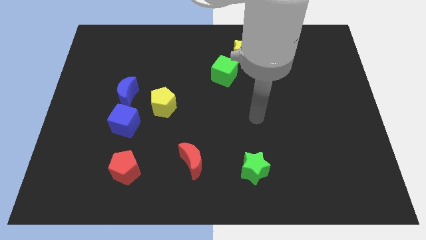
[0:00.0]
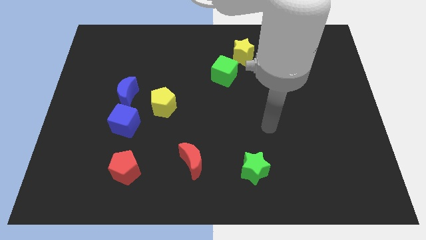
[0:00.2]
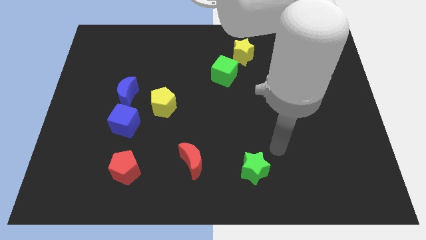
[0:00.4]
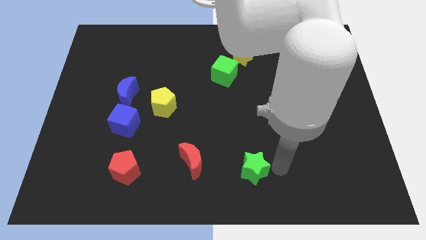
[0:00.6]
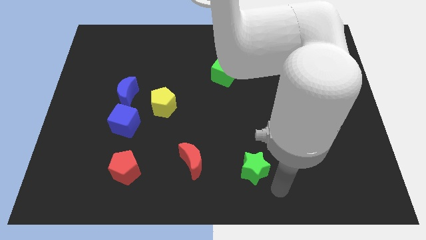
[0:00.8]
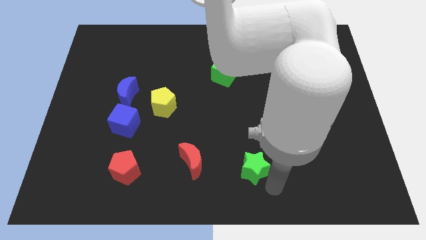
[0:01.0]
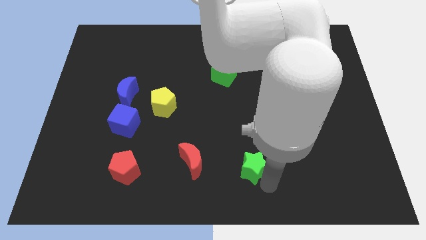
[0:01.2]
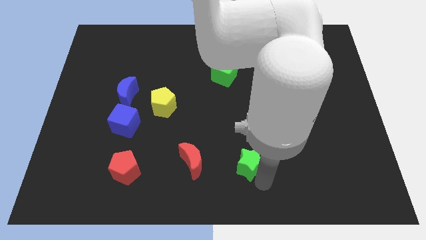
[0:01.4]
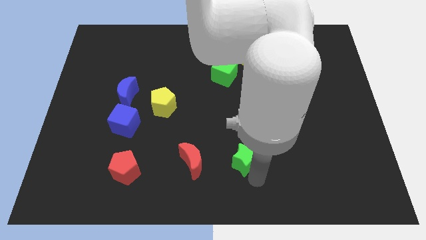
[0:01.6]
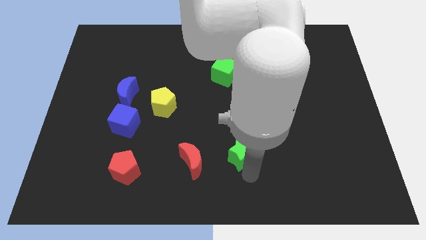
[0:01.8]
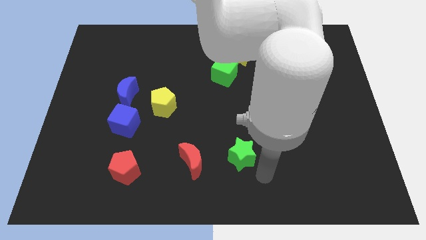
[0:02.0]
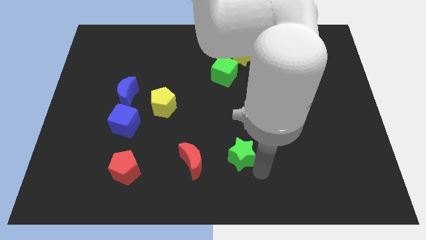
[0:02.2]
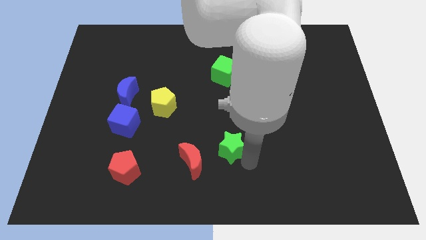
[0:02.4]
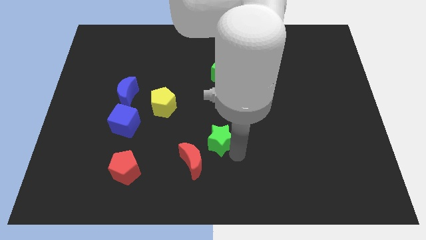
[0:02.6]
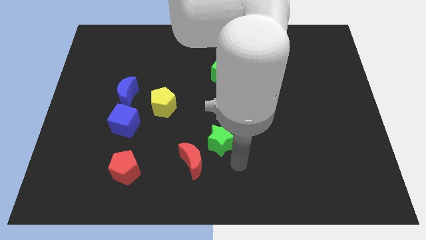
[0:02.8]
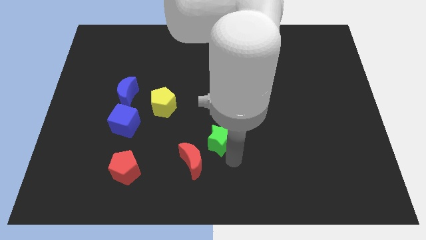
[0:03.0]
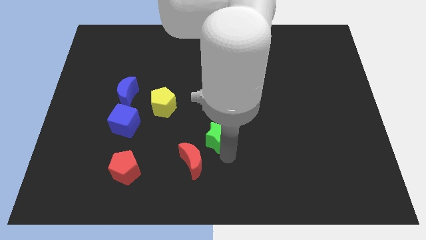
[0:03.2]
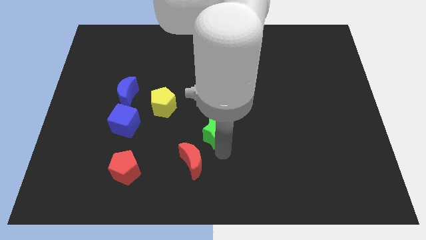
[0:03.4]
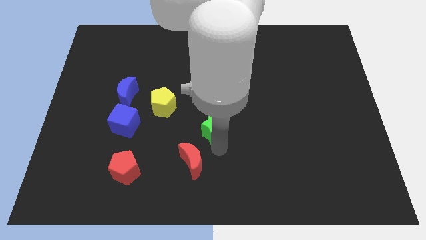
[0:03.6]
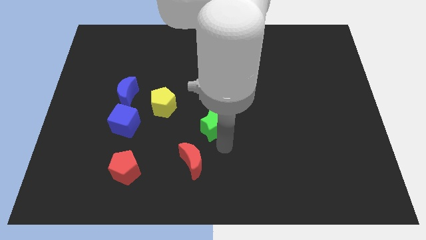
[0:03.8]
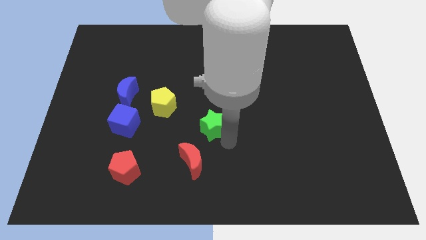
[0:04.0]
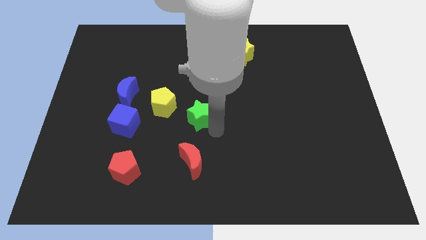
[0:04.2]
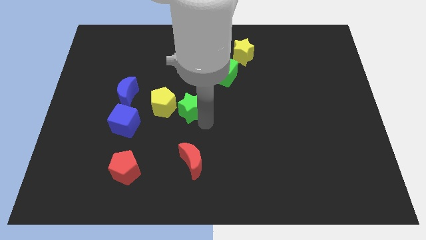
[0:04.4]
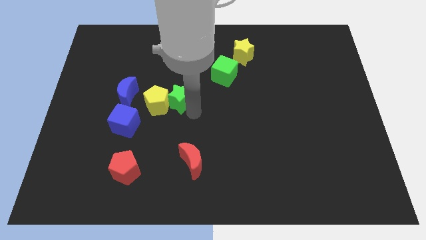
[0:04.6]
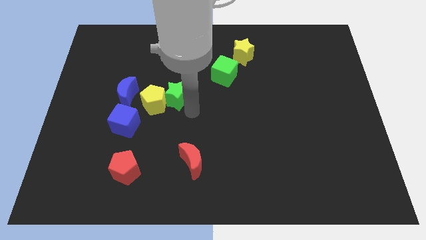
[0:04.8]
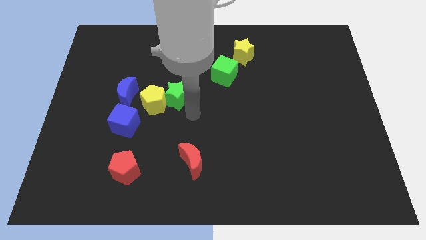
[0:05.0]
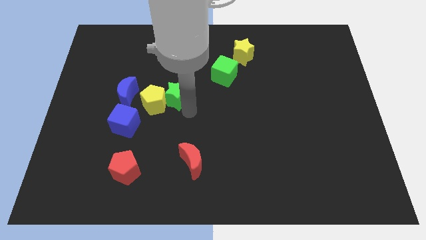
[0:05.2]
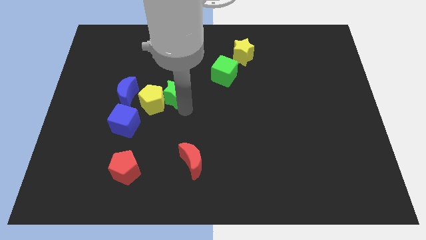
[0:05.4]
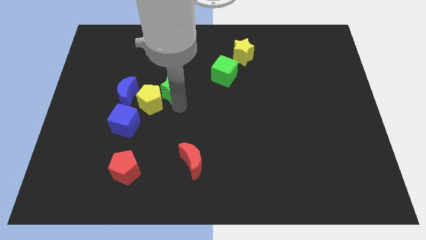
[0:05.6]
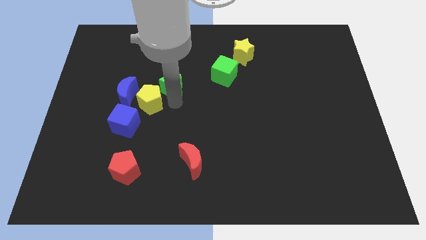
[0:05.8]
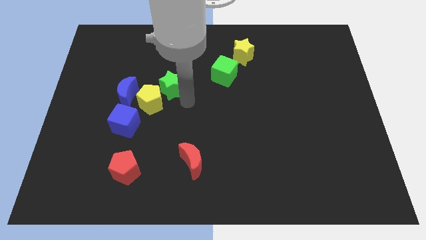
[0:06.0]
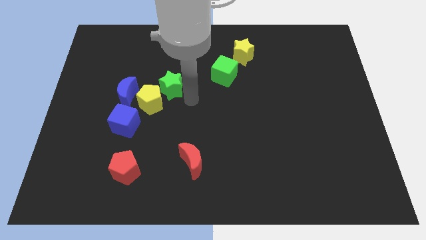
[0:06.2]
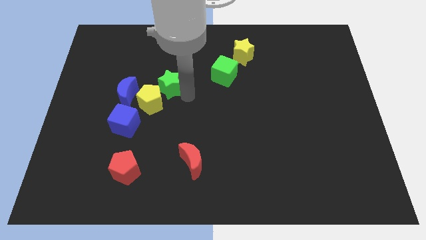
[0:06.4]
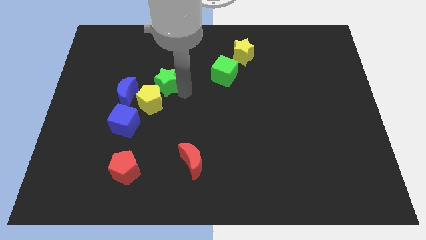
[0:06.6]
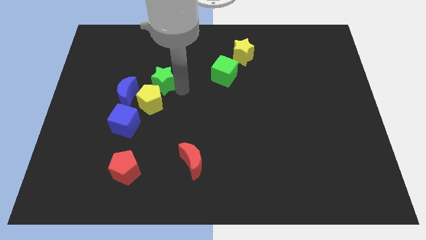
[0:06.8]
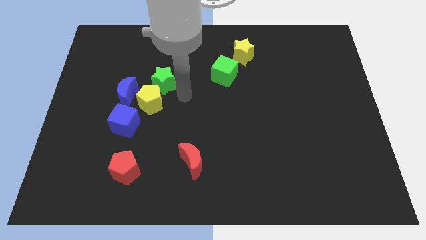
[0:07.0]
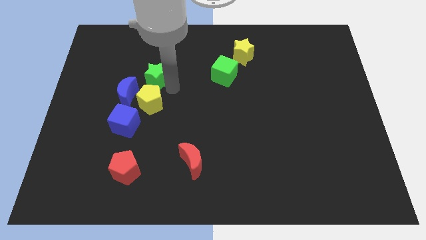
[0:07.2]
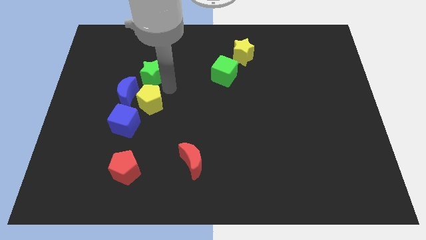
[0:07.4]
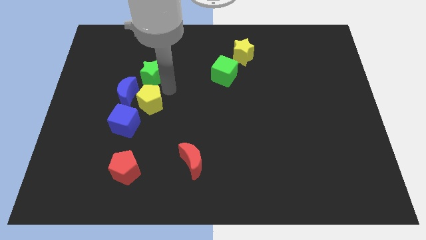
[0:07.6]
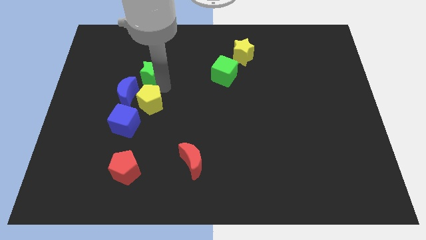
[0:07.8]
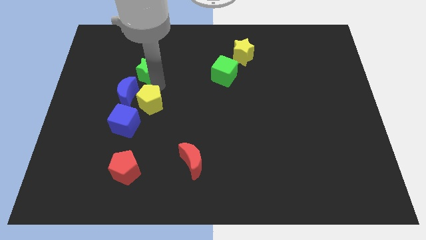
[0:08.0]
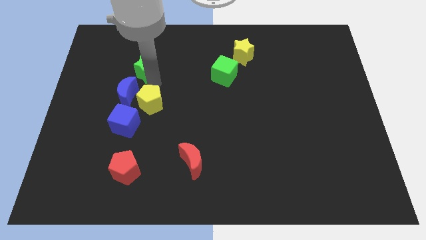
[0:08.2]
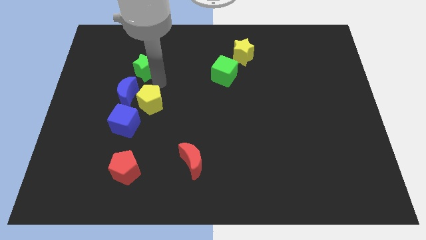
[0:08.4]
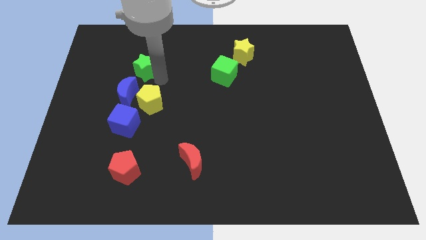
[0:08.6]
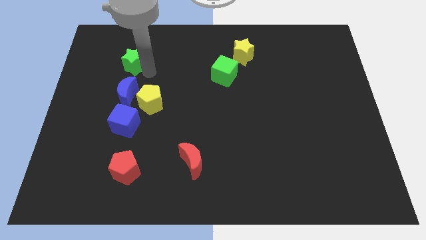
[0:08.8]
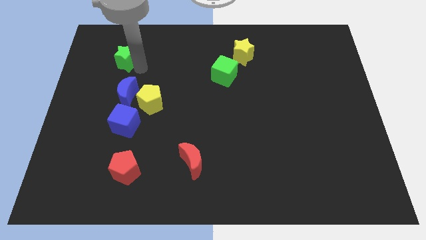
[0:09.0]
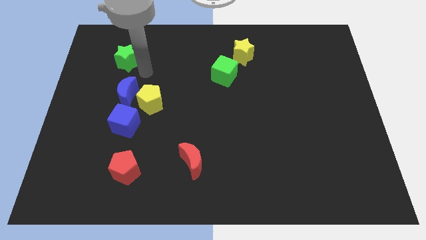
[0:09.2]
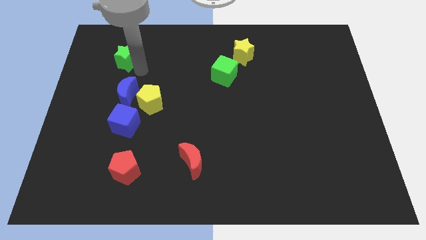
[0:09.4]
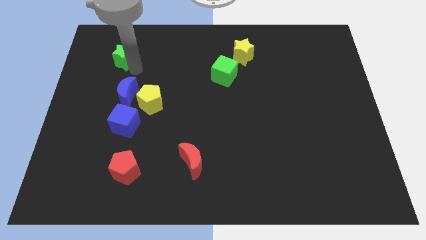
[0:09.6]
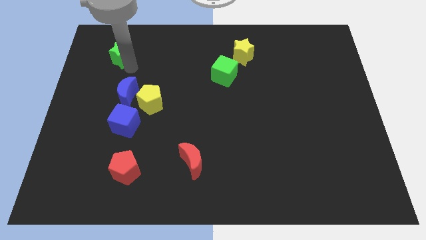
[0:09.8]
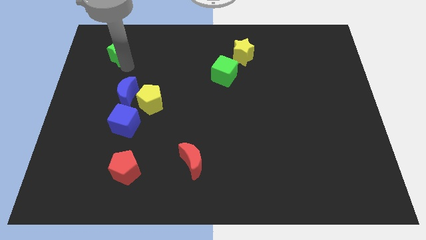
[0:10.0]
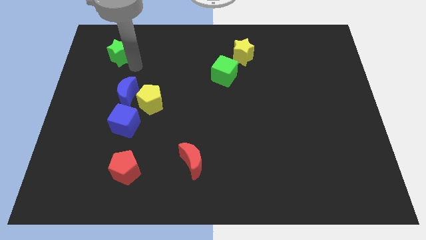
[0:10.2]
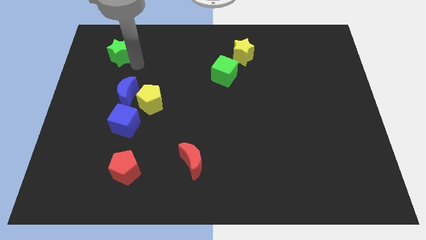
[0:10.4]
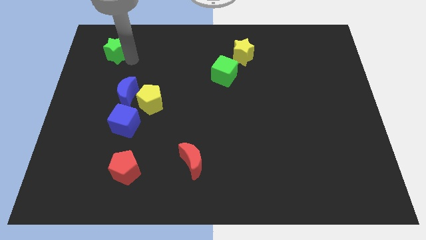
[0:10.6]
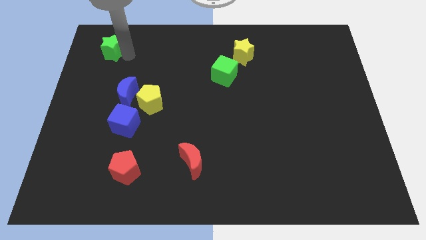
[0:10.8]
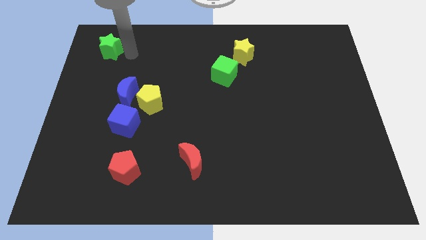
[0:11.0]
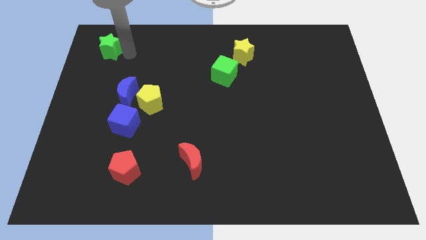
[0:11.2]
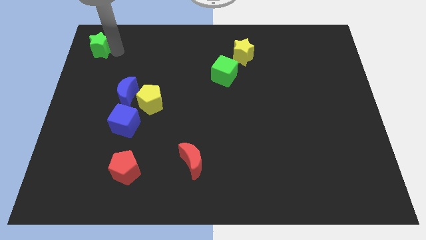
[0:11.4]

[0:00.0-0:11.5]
move the green star to the top left

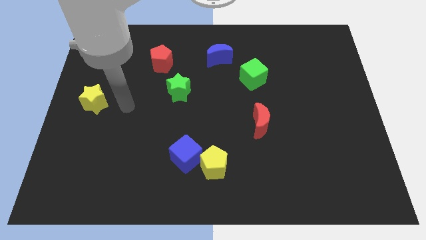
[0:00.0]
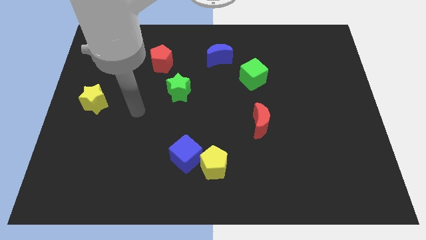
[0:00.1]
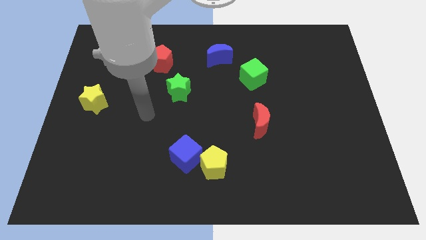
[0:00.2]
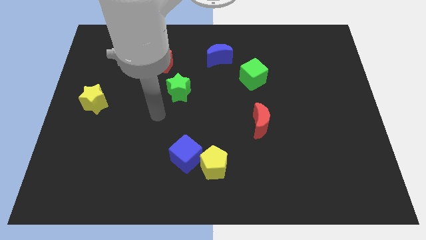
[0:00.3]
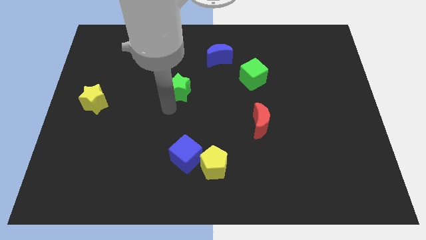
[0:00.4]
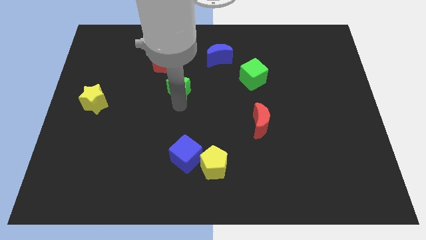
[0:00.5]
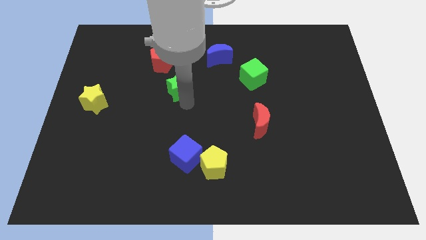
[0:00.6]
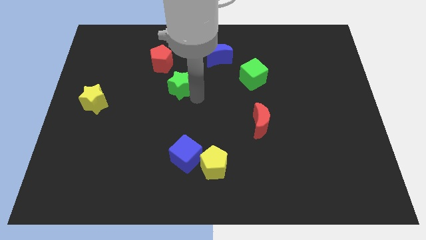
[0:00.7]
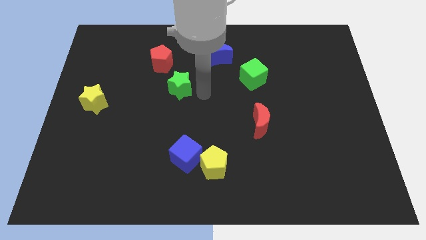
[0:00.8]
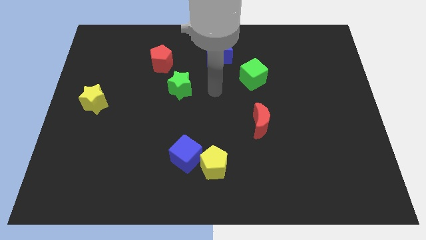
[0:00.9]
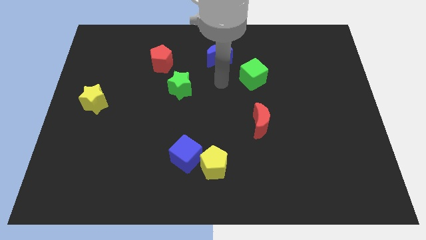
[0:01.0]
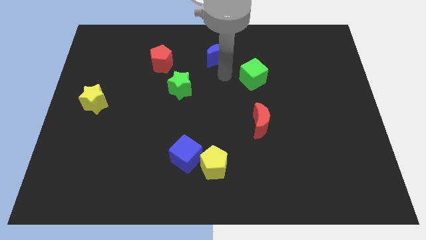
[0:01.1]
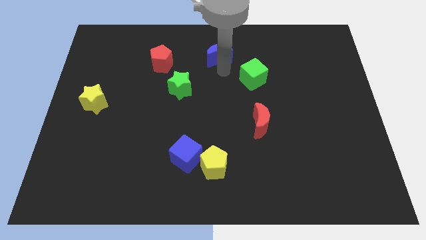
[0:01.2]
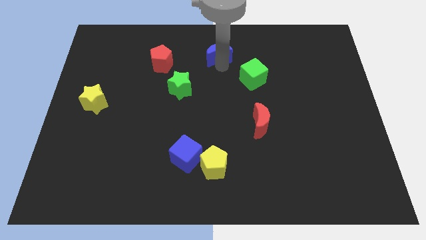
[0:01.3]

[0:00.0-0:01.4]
push the blue moon to the towards your base
